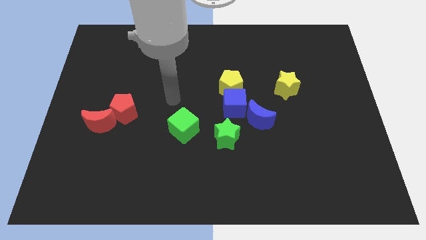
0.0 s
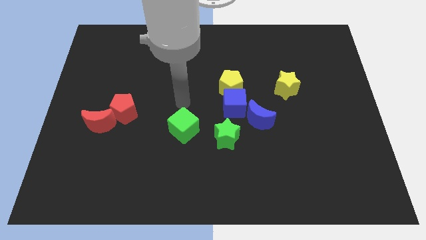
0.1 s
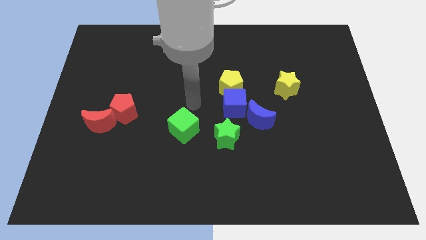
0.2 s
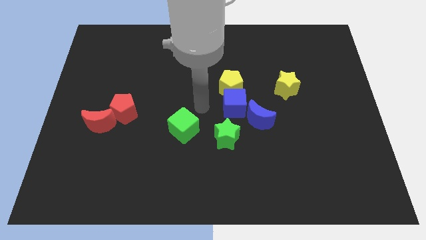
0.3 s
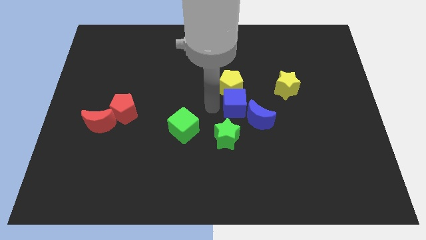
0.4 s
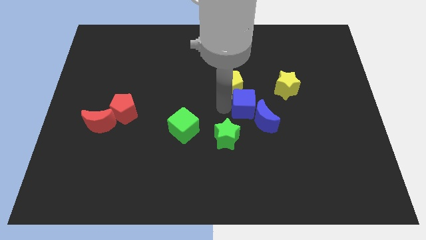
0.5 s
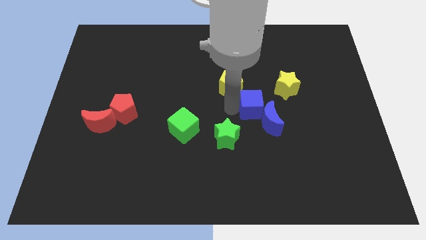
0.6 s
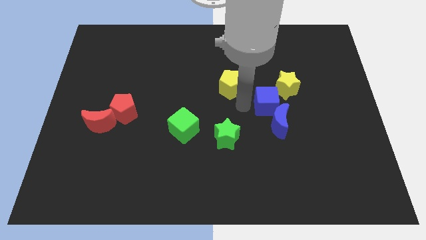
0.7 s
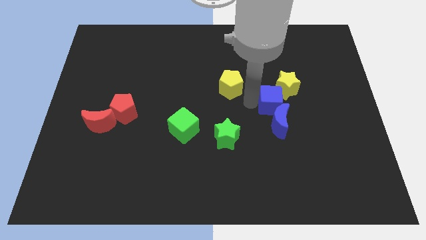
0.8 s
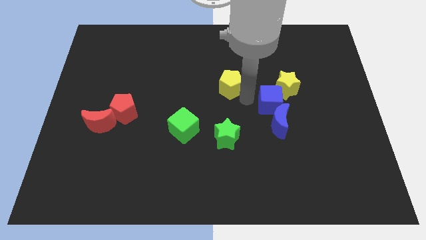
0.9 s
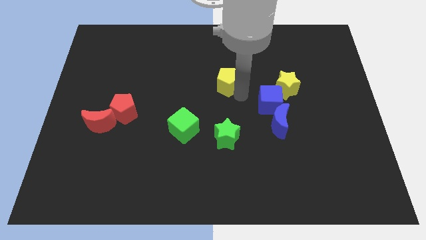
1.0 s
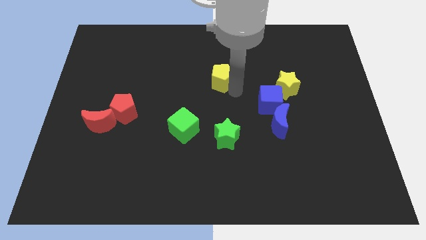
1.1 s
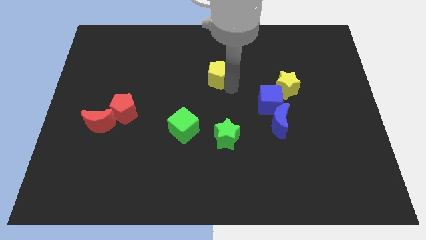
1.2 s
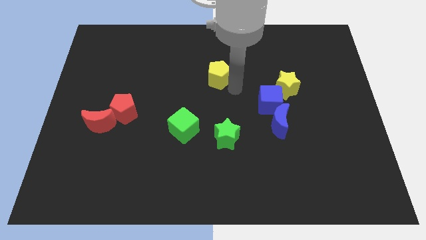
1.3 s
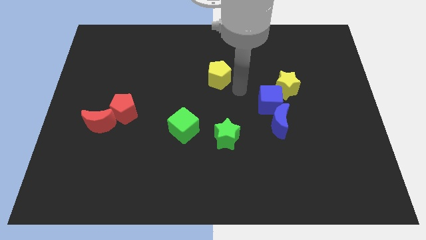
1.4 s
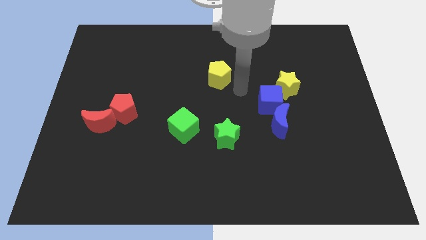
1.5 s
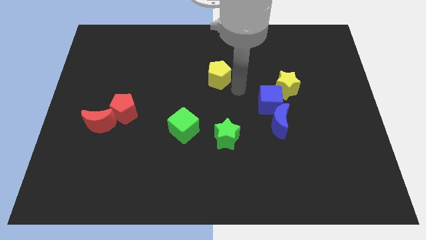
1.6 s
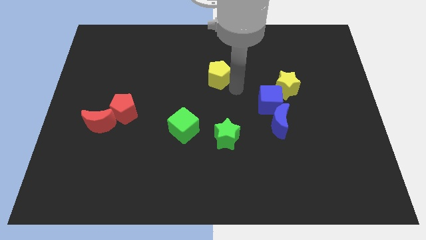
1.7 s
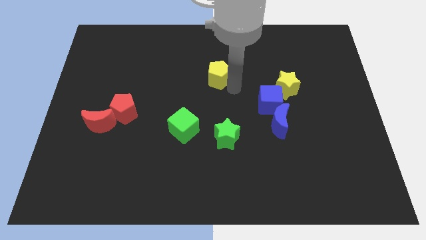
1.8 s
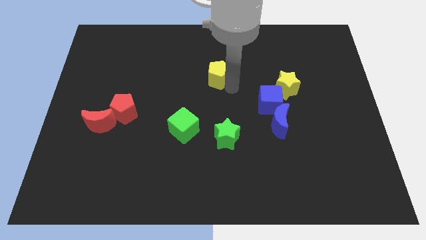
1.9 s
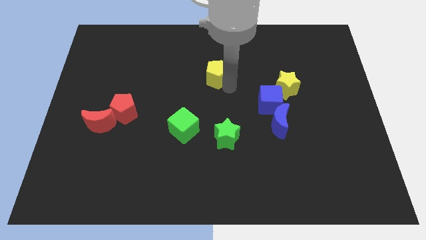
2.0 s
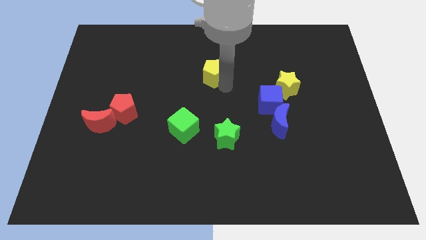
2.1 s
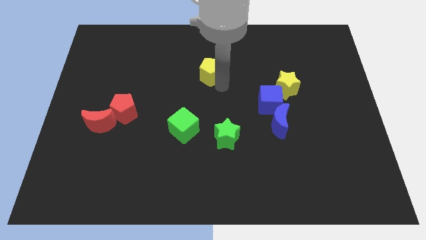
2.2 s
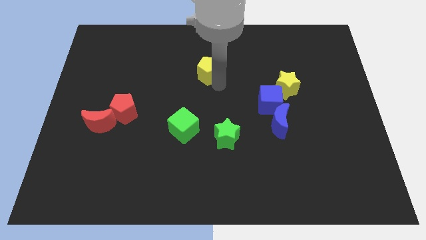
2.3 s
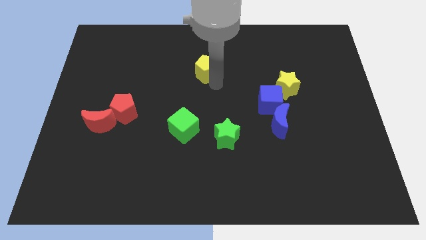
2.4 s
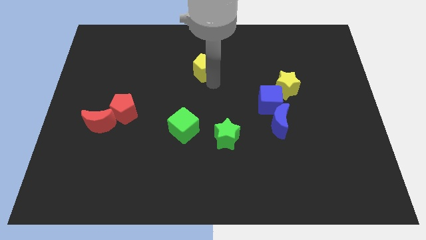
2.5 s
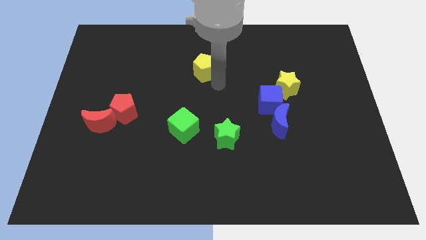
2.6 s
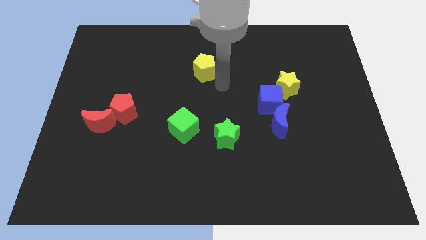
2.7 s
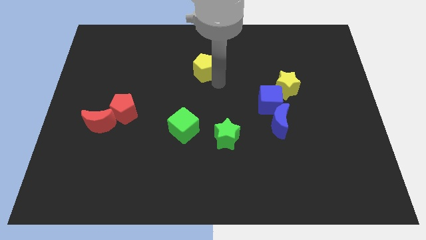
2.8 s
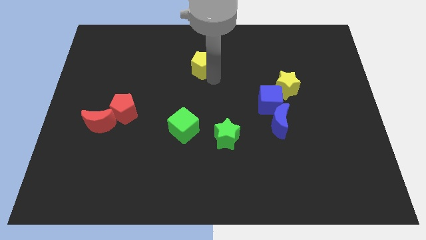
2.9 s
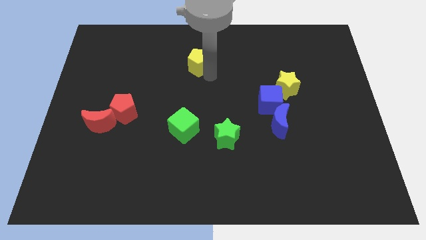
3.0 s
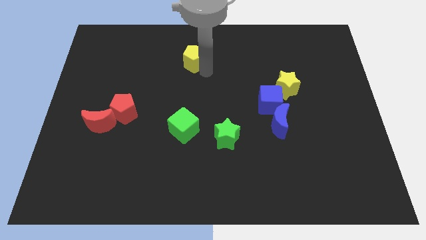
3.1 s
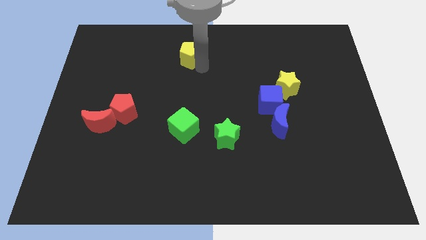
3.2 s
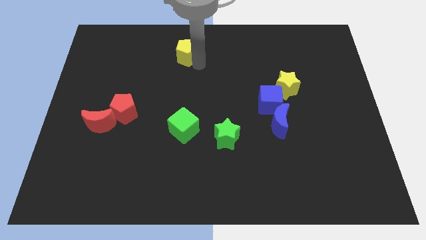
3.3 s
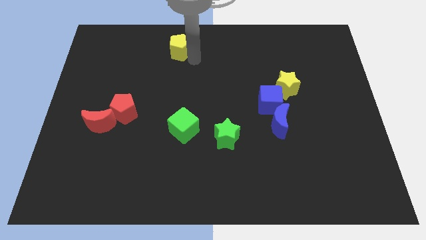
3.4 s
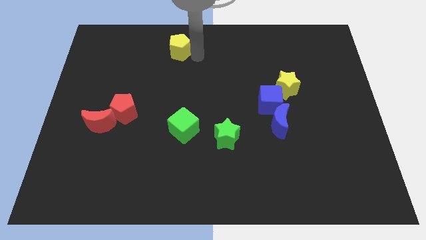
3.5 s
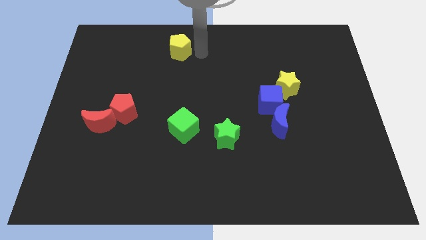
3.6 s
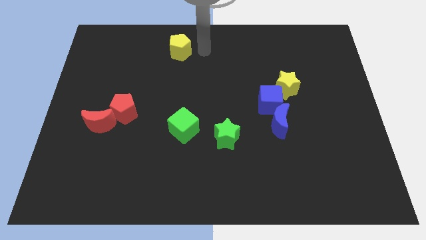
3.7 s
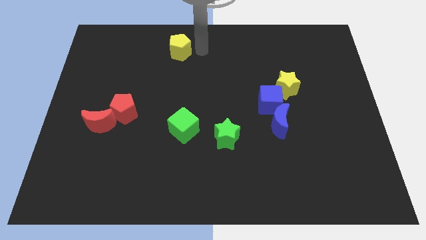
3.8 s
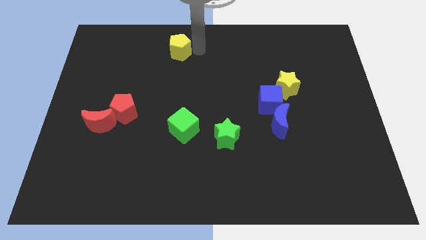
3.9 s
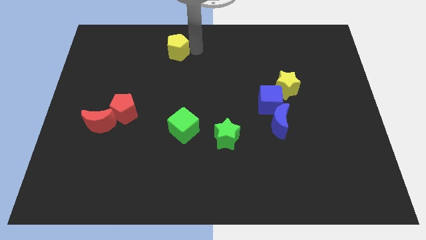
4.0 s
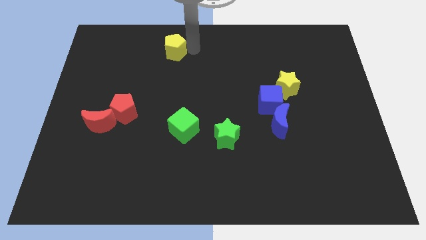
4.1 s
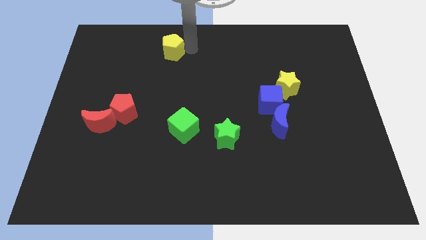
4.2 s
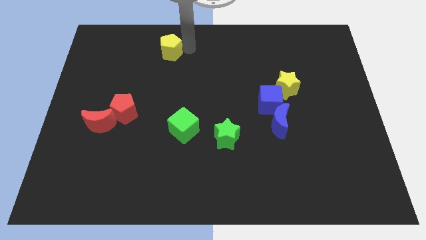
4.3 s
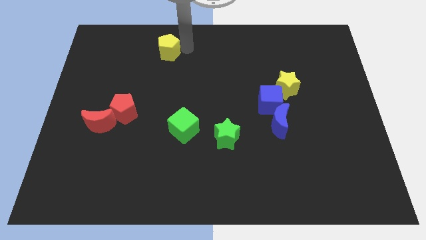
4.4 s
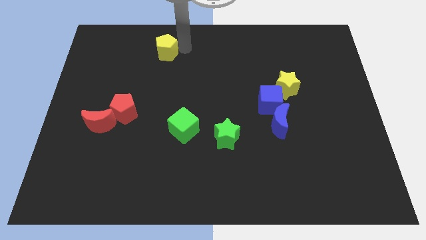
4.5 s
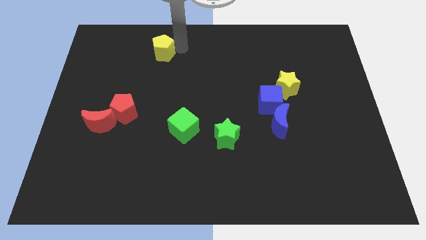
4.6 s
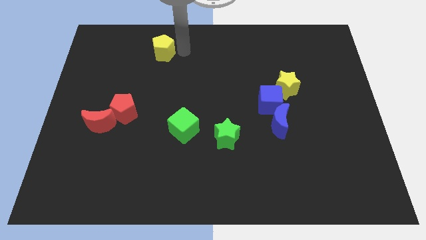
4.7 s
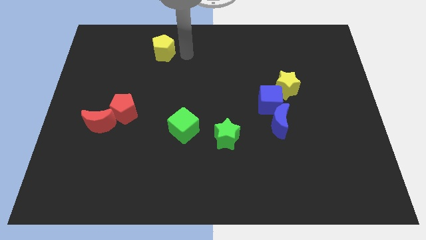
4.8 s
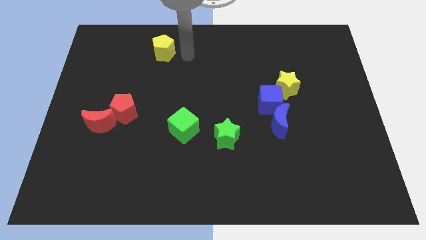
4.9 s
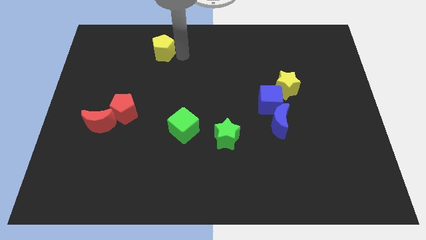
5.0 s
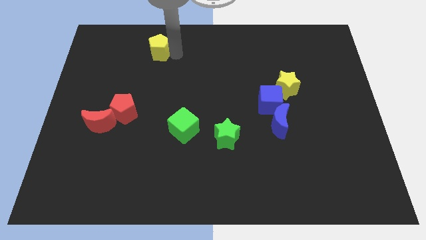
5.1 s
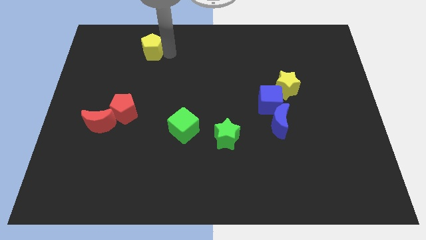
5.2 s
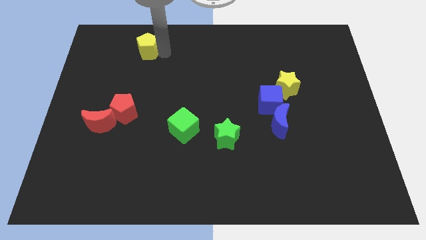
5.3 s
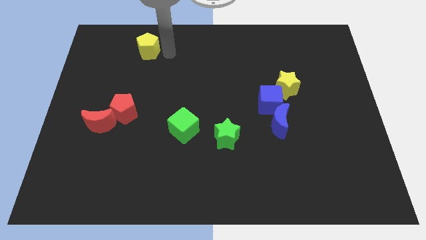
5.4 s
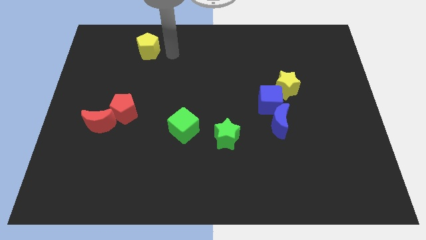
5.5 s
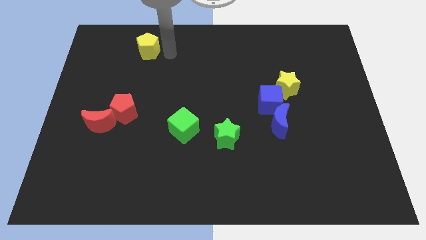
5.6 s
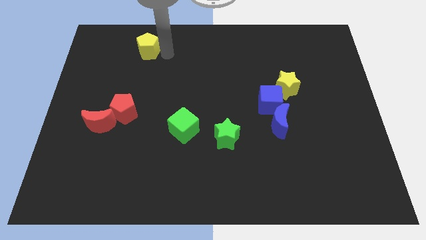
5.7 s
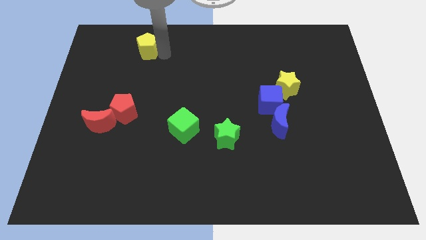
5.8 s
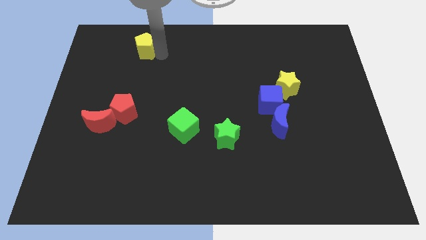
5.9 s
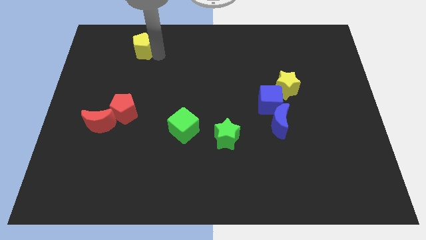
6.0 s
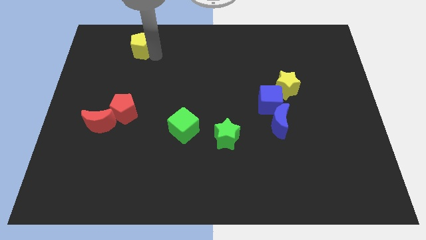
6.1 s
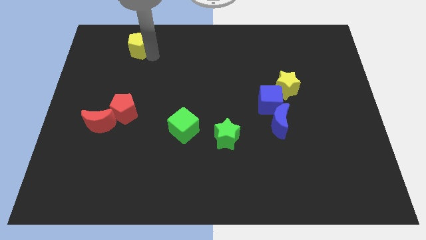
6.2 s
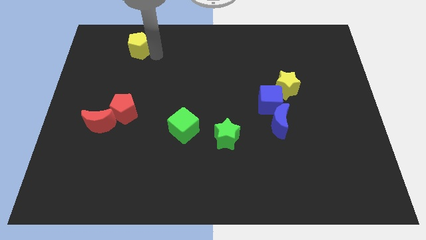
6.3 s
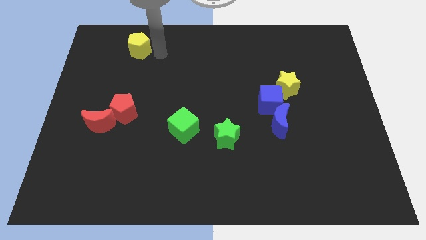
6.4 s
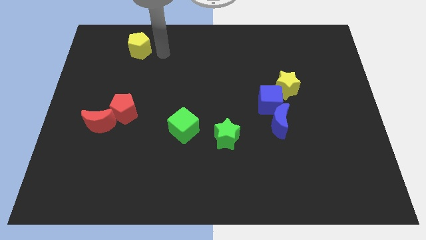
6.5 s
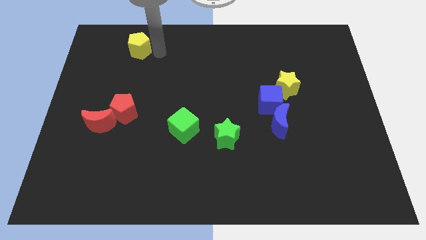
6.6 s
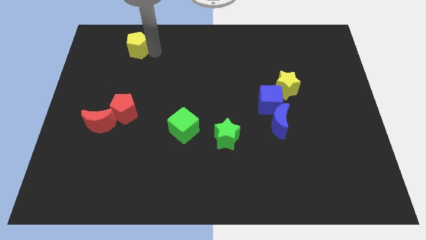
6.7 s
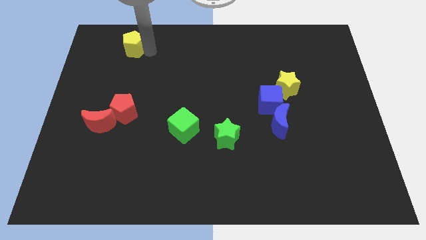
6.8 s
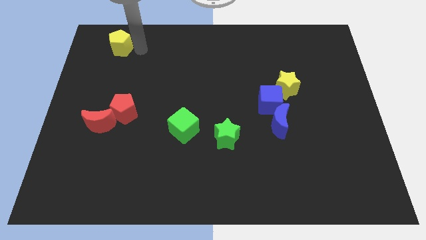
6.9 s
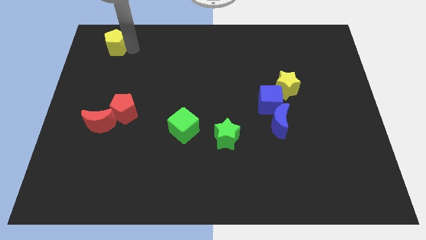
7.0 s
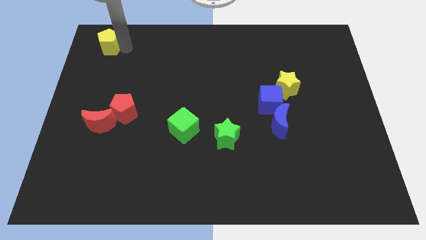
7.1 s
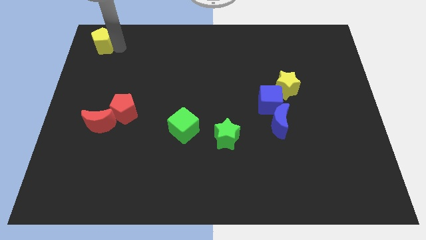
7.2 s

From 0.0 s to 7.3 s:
put the yellow pentagon to the top left
